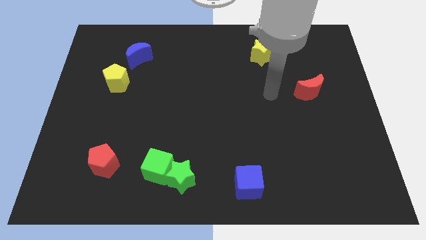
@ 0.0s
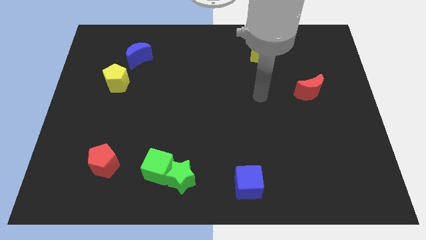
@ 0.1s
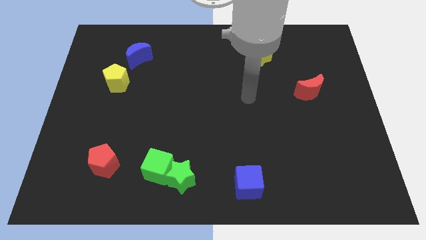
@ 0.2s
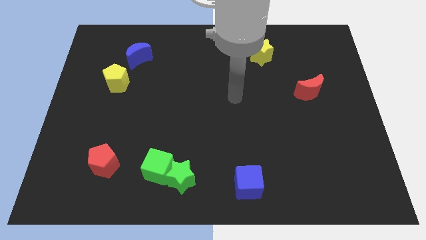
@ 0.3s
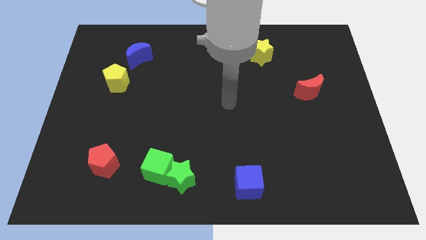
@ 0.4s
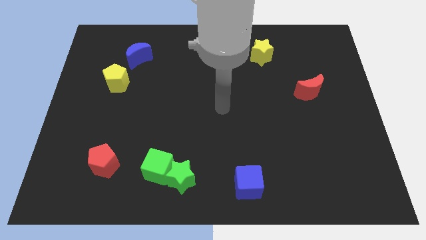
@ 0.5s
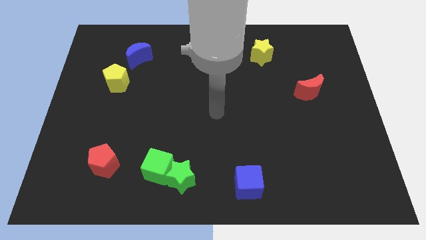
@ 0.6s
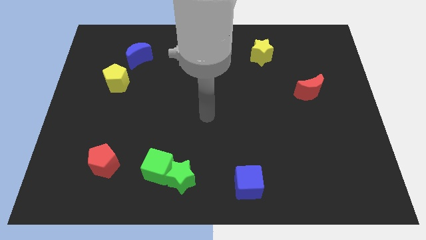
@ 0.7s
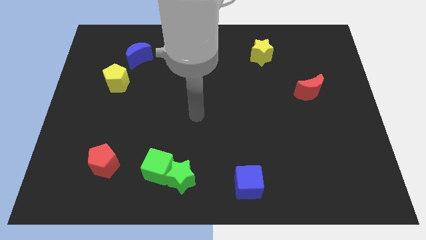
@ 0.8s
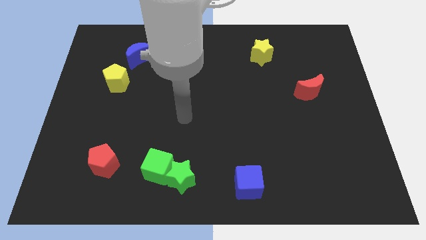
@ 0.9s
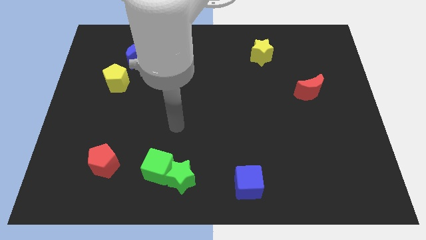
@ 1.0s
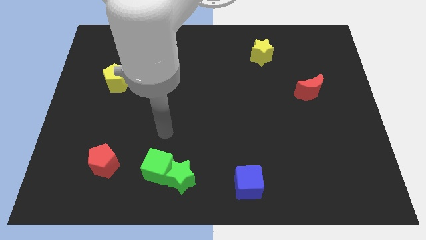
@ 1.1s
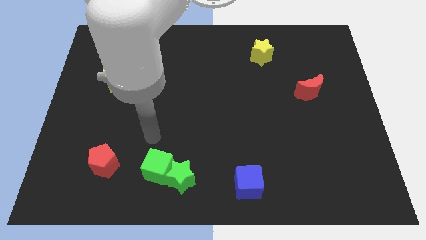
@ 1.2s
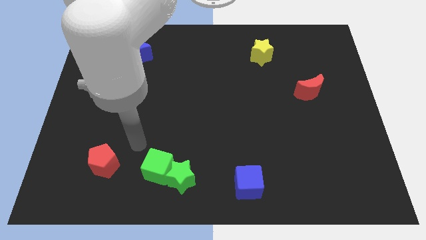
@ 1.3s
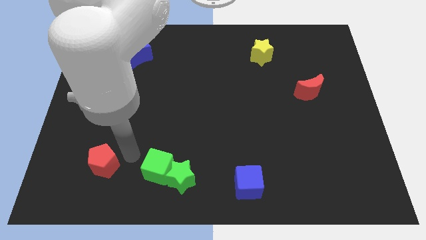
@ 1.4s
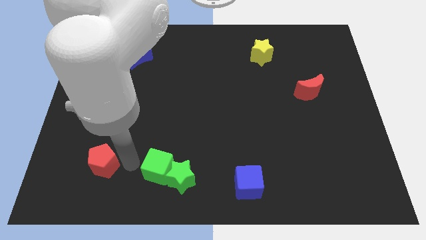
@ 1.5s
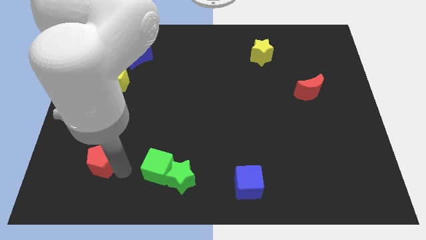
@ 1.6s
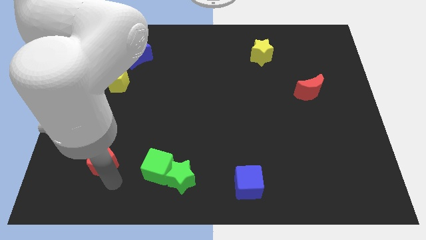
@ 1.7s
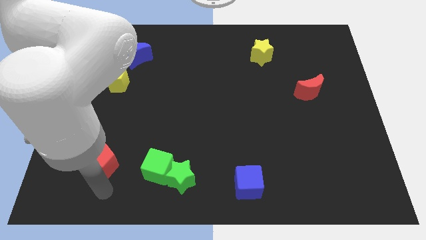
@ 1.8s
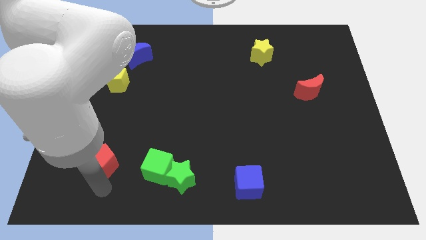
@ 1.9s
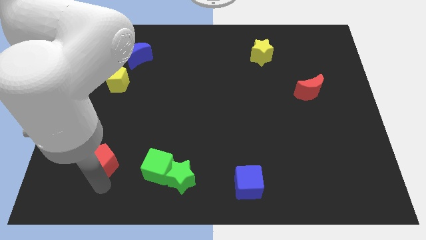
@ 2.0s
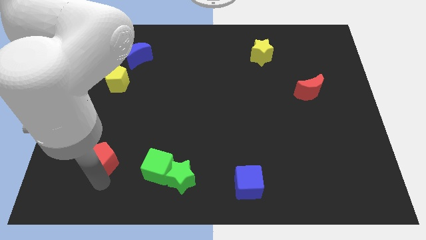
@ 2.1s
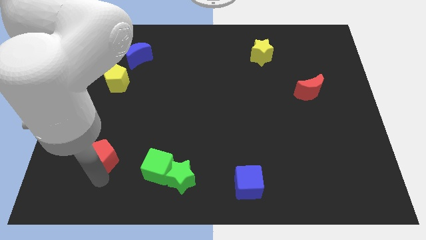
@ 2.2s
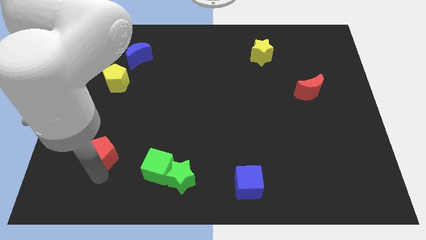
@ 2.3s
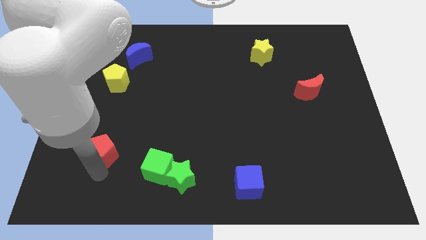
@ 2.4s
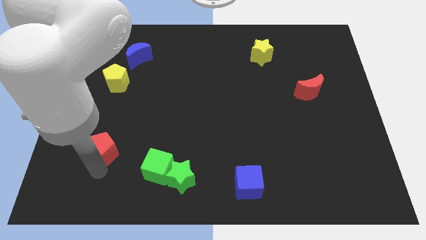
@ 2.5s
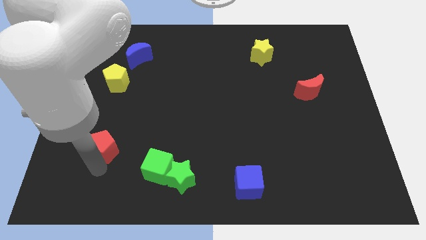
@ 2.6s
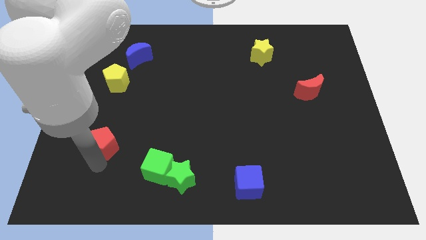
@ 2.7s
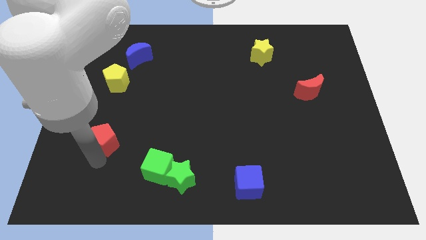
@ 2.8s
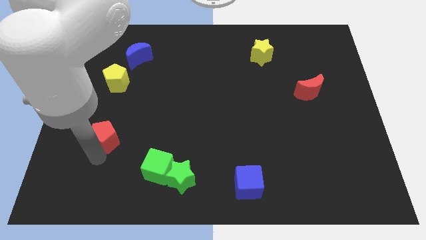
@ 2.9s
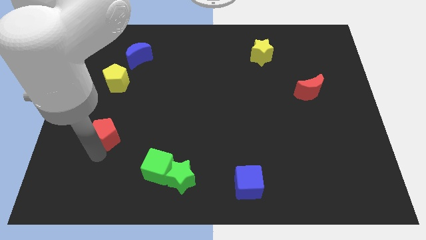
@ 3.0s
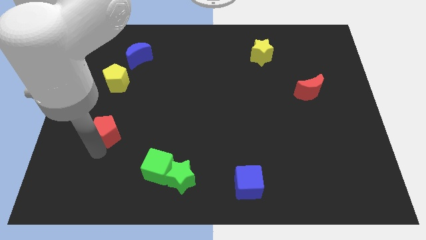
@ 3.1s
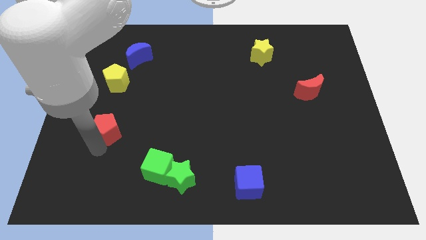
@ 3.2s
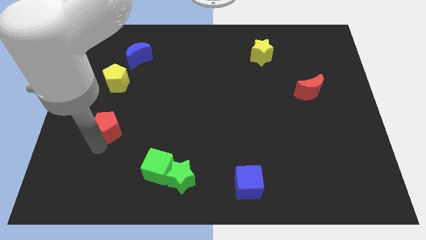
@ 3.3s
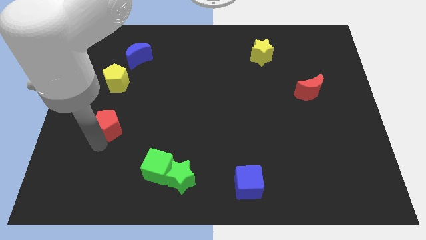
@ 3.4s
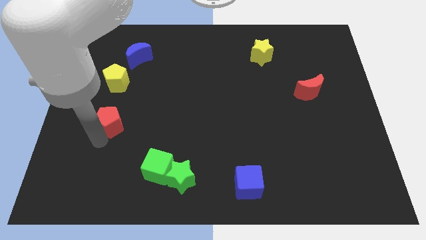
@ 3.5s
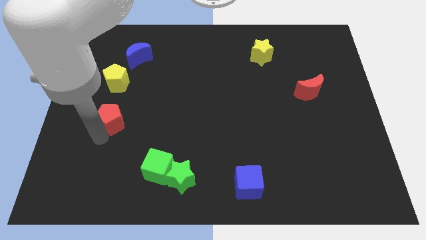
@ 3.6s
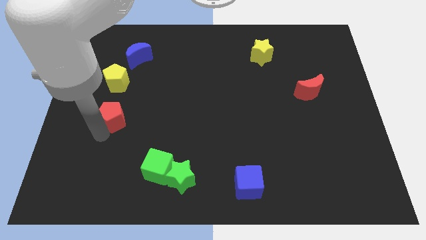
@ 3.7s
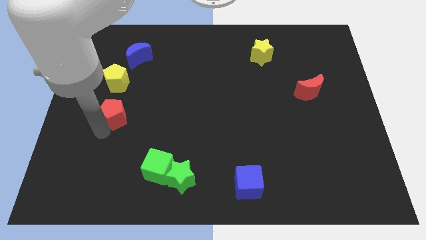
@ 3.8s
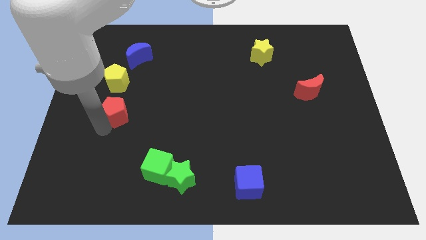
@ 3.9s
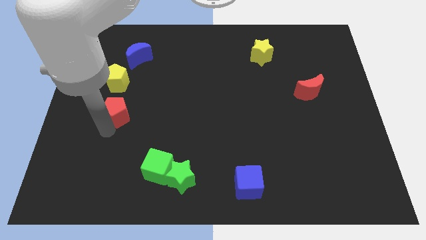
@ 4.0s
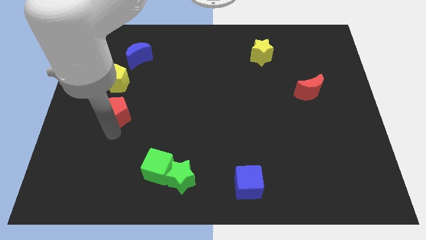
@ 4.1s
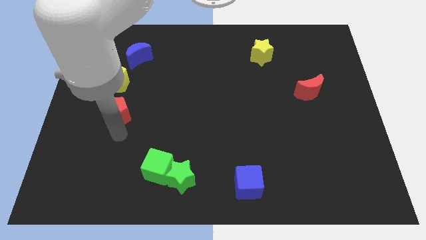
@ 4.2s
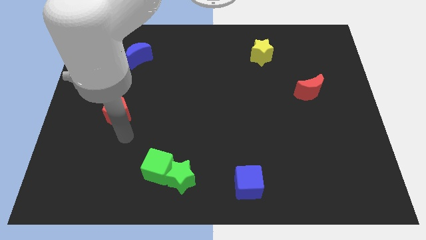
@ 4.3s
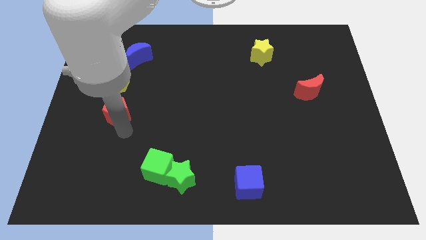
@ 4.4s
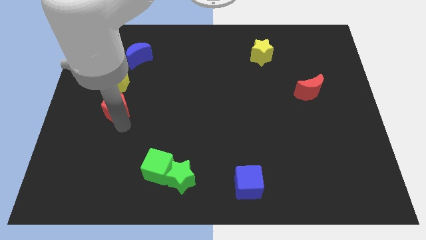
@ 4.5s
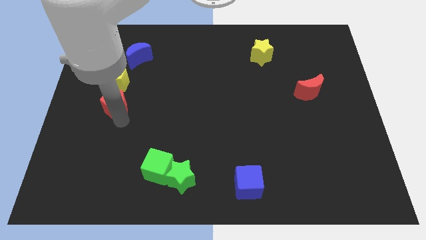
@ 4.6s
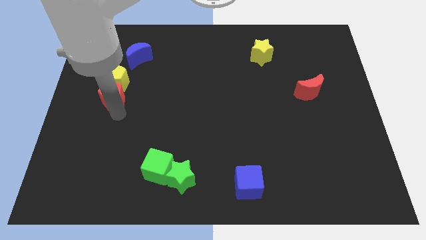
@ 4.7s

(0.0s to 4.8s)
slide the red pentagon to the yellow pentagon

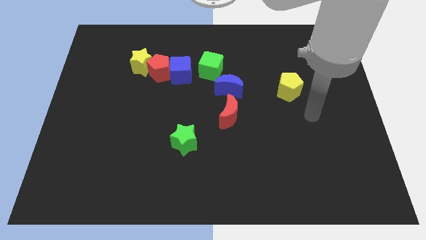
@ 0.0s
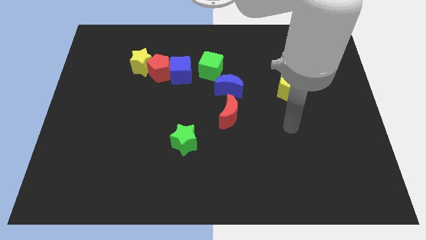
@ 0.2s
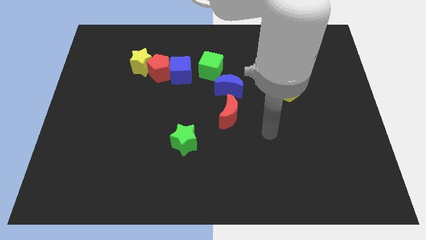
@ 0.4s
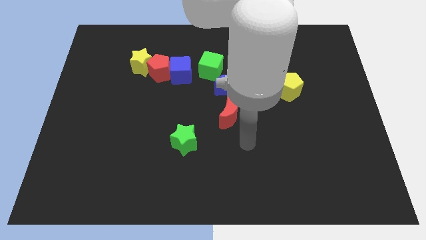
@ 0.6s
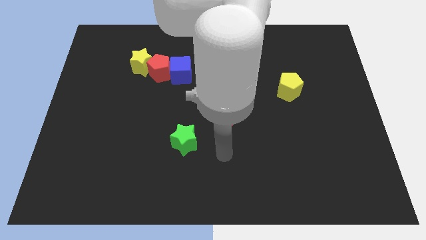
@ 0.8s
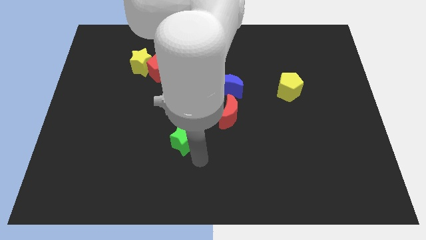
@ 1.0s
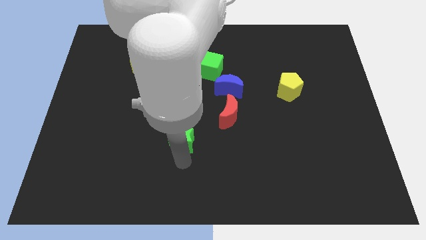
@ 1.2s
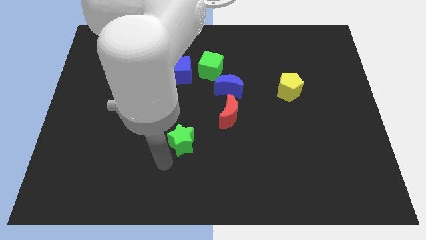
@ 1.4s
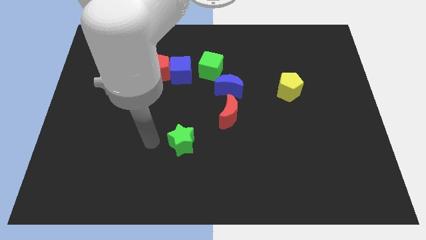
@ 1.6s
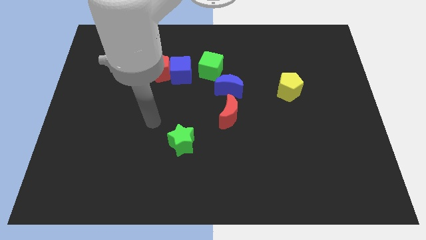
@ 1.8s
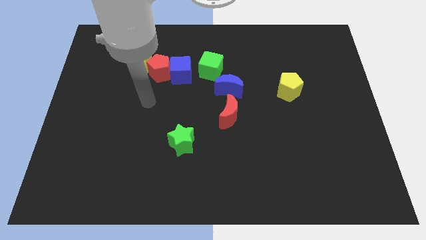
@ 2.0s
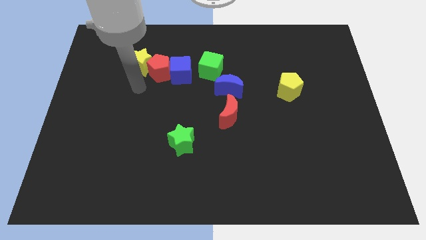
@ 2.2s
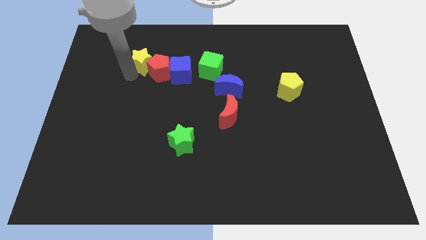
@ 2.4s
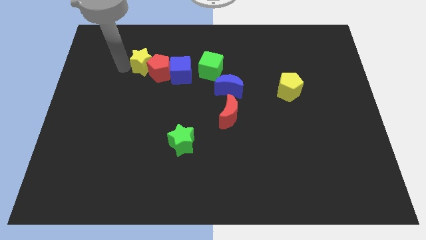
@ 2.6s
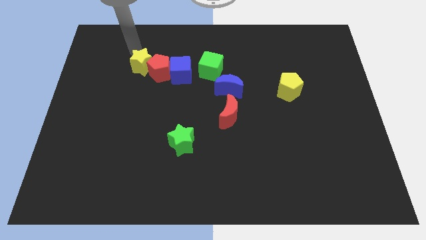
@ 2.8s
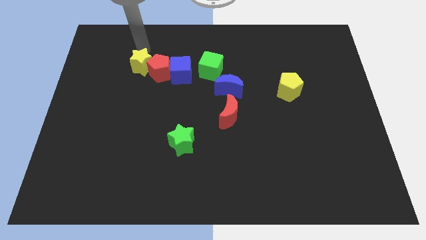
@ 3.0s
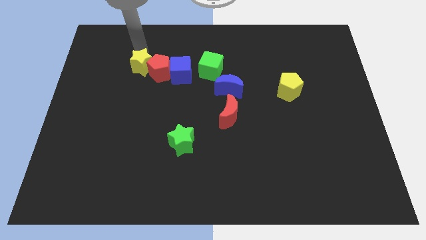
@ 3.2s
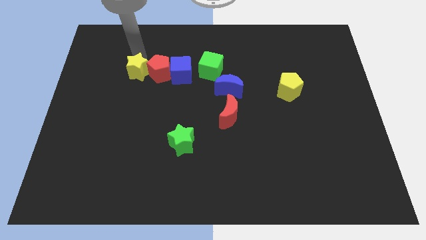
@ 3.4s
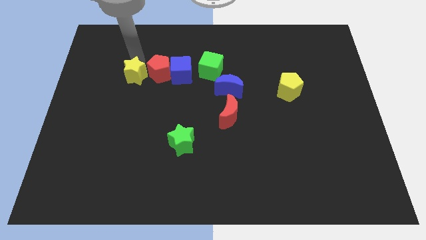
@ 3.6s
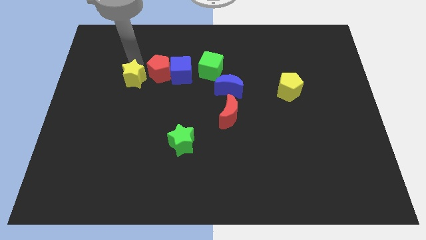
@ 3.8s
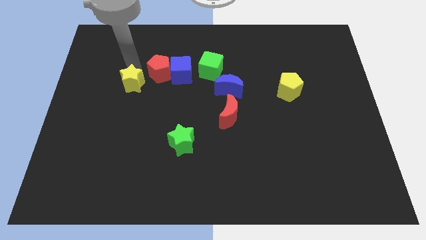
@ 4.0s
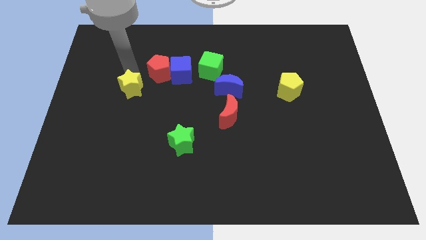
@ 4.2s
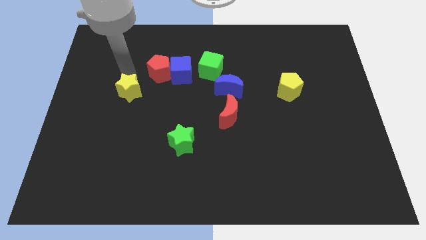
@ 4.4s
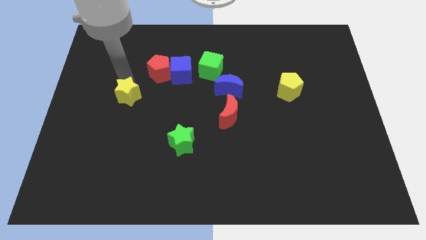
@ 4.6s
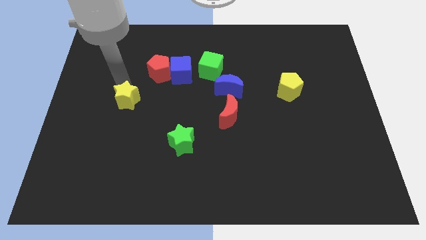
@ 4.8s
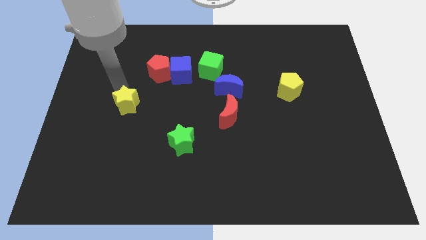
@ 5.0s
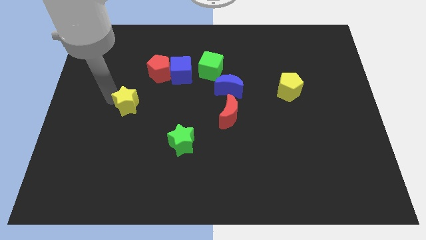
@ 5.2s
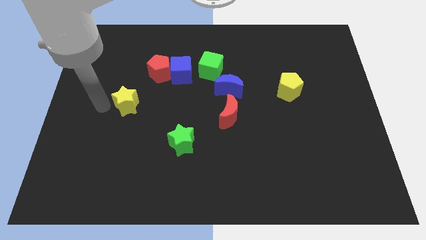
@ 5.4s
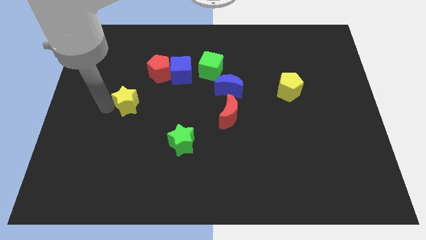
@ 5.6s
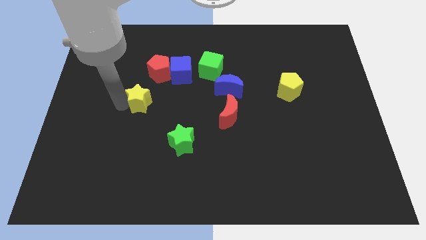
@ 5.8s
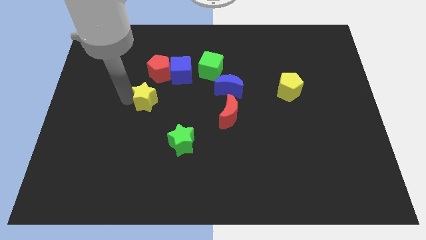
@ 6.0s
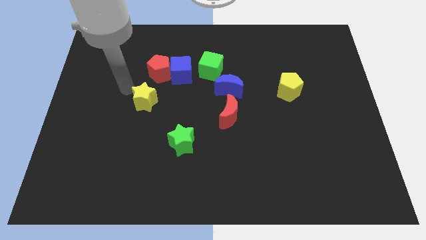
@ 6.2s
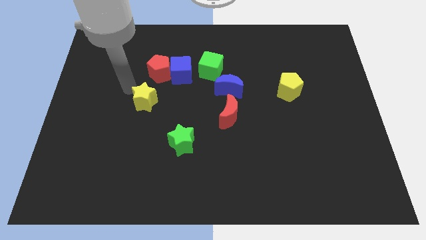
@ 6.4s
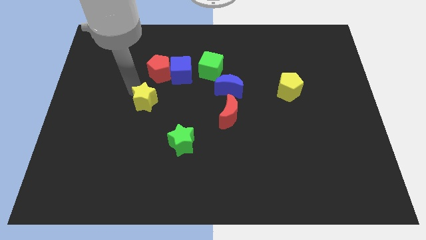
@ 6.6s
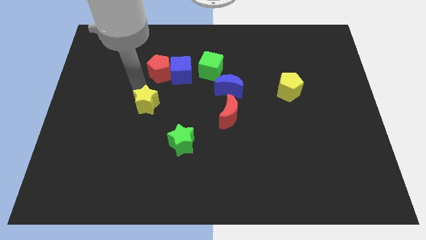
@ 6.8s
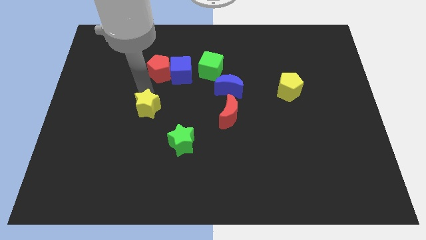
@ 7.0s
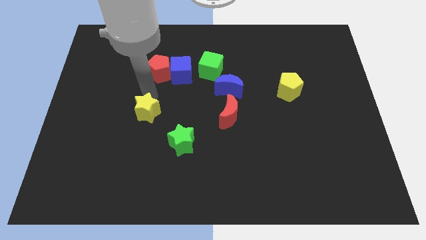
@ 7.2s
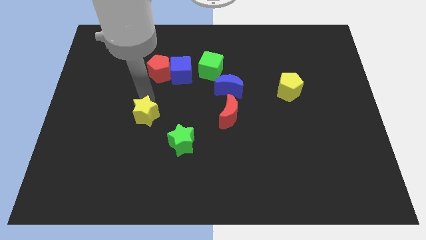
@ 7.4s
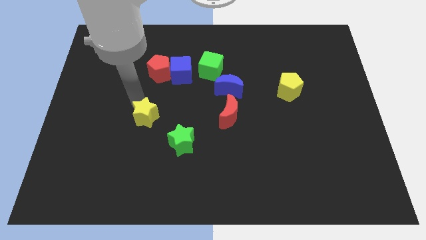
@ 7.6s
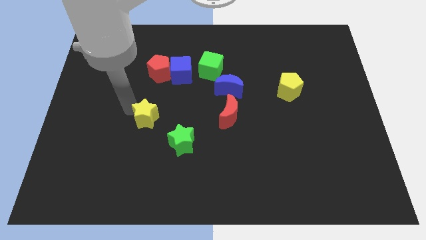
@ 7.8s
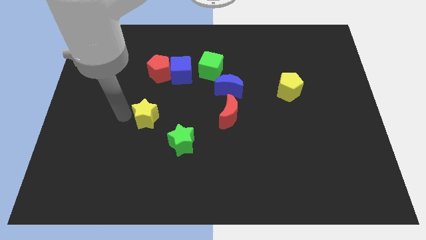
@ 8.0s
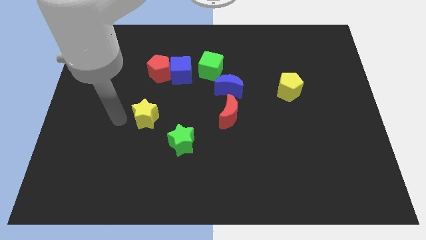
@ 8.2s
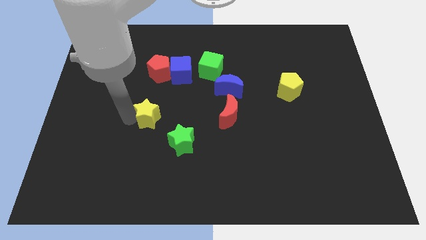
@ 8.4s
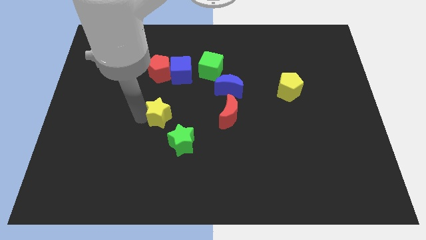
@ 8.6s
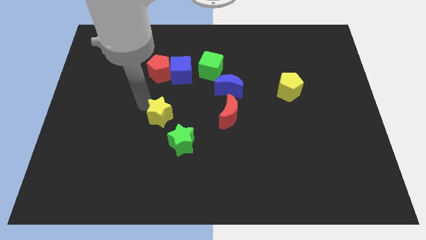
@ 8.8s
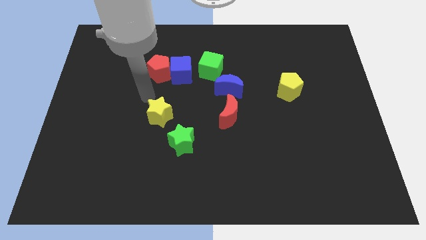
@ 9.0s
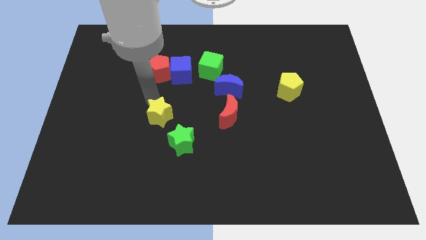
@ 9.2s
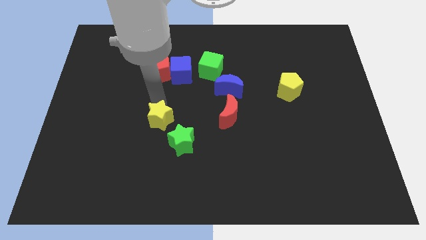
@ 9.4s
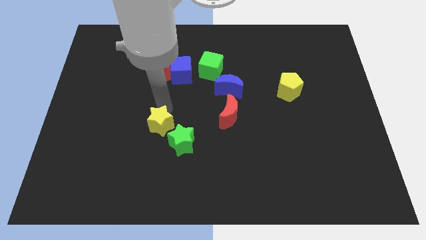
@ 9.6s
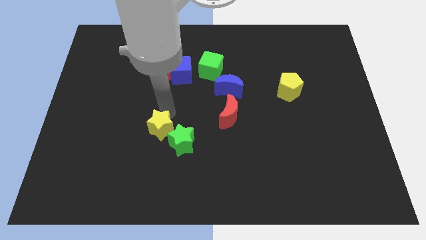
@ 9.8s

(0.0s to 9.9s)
slide the yellow star towards the green star
